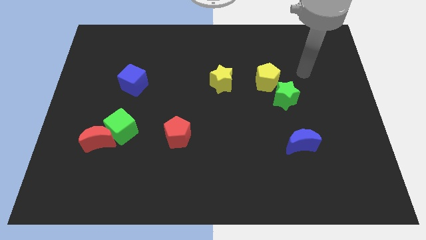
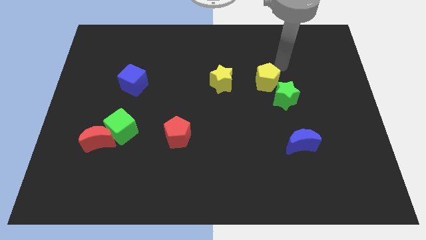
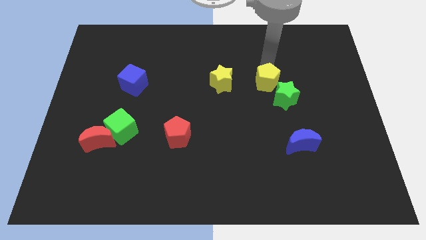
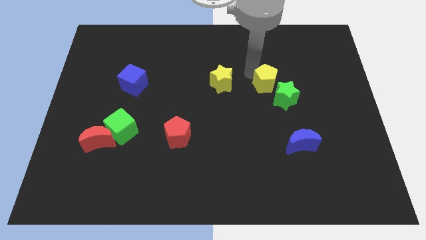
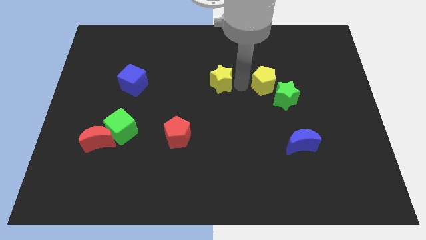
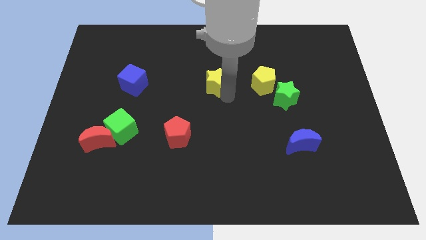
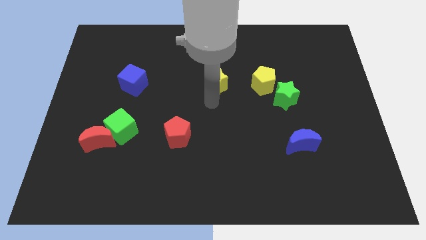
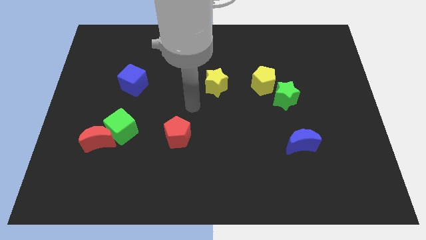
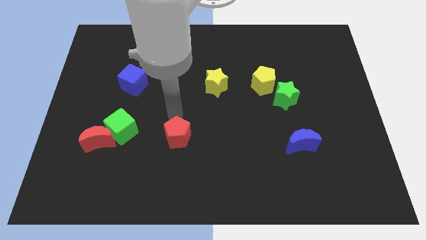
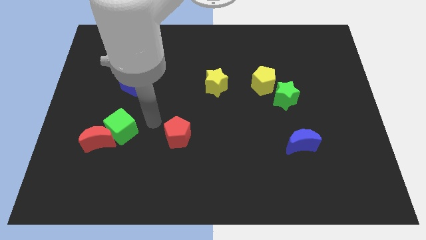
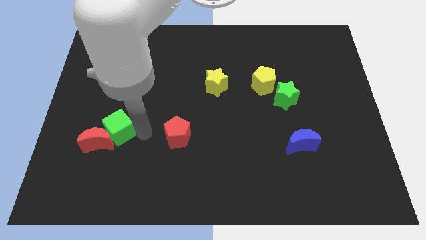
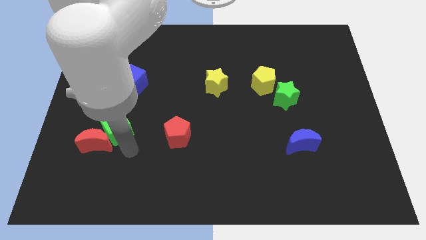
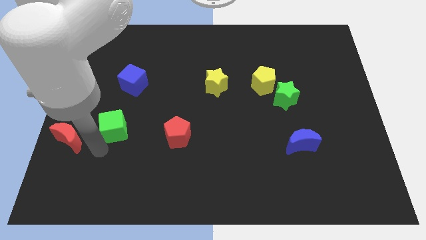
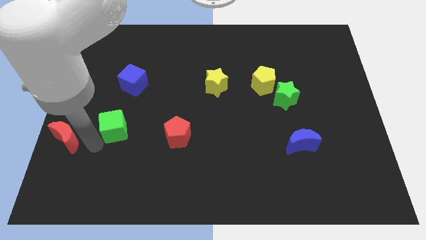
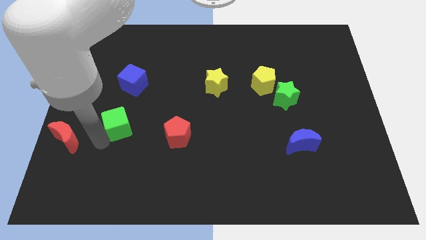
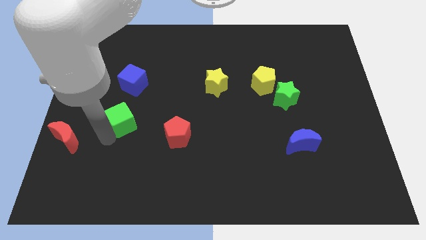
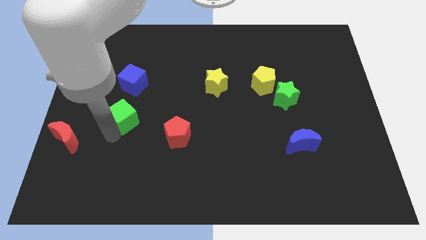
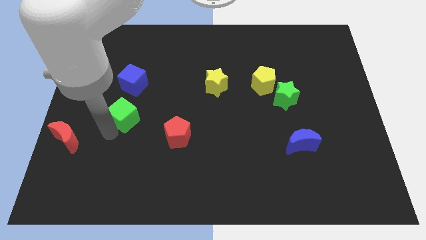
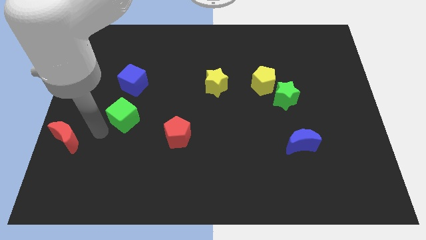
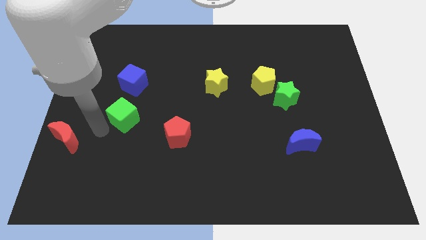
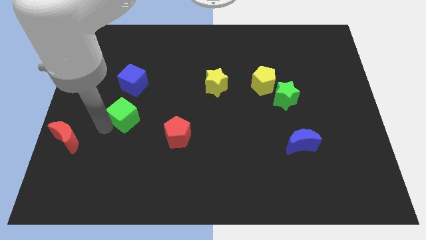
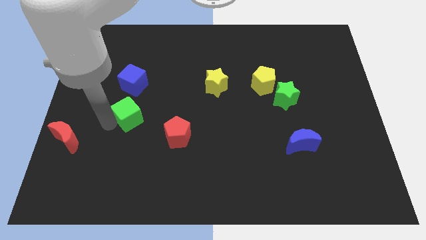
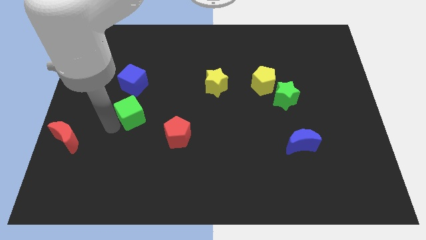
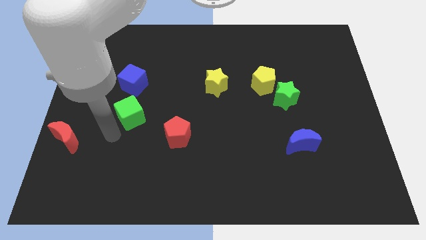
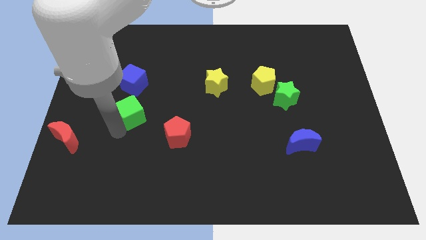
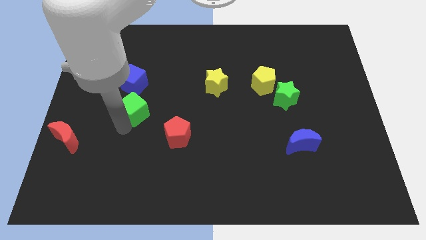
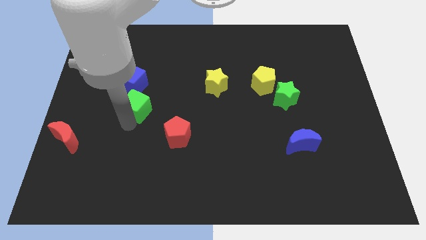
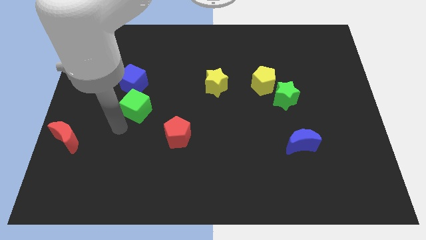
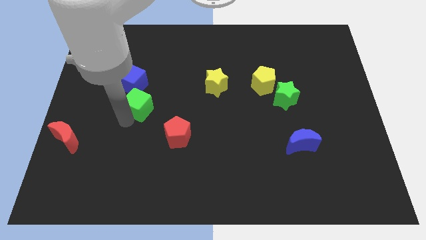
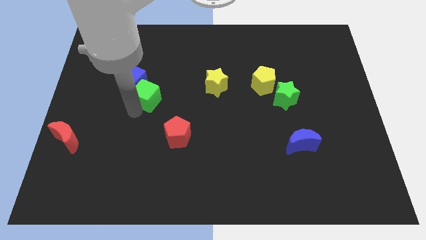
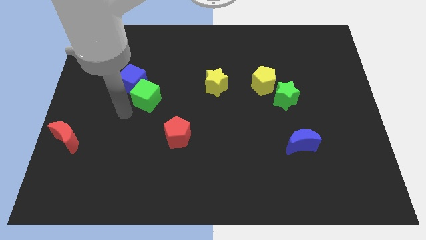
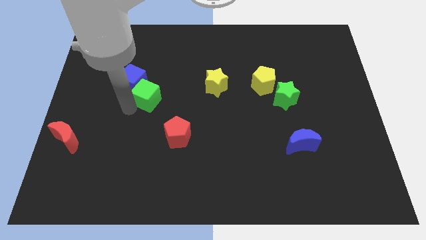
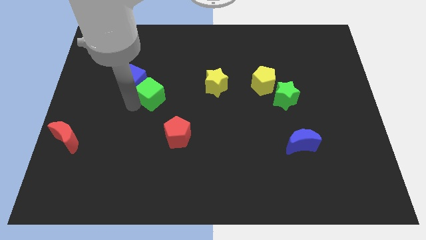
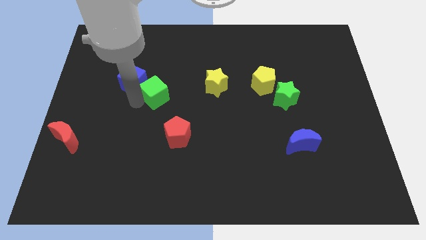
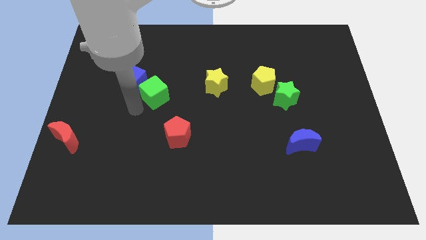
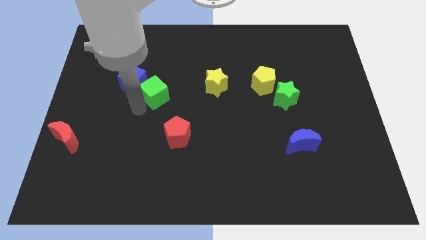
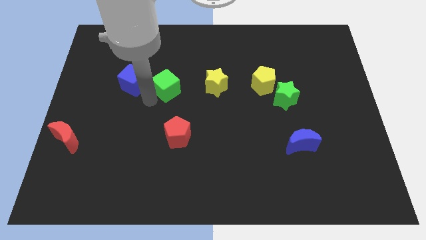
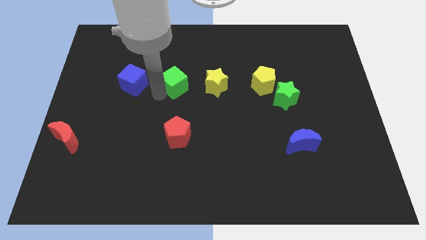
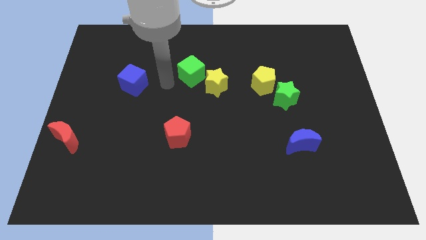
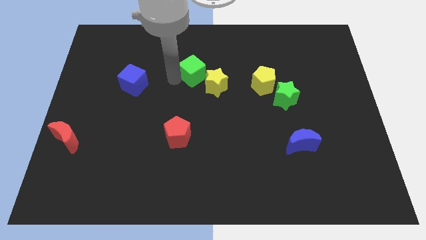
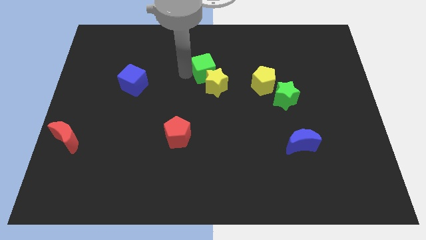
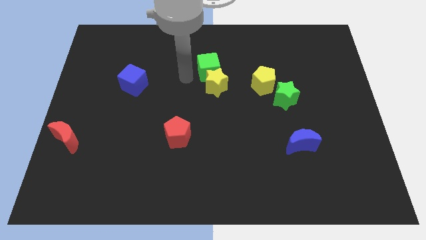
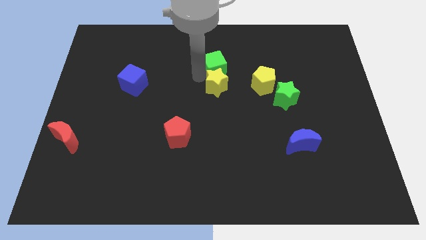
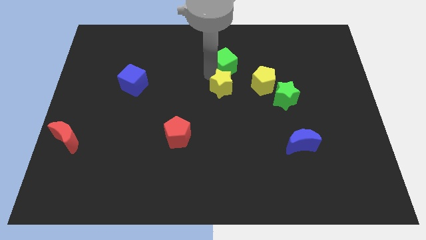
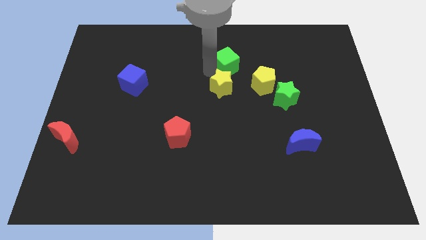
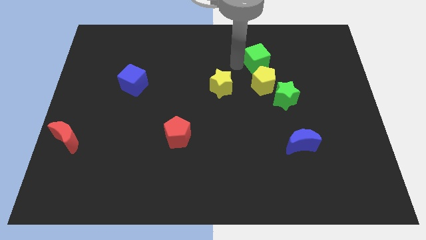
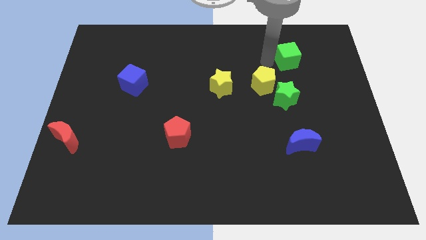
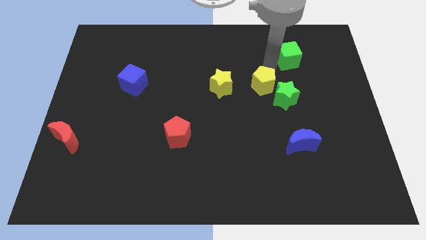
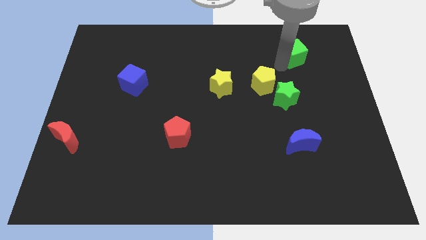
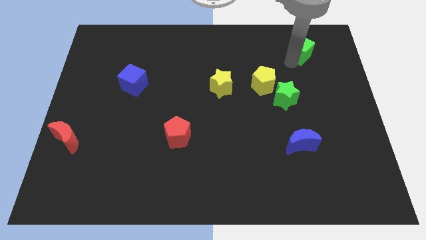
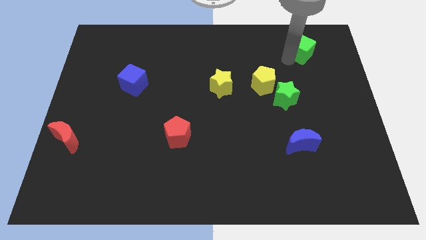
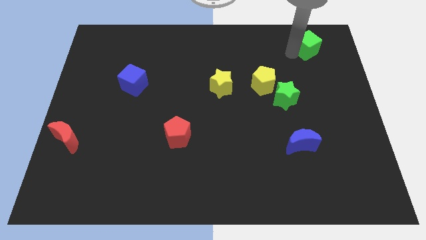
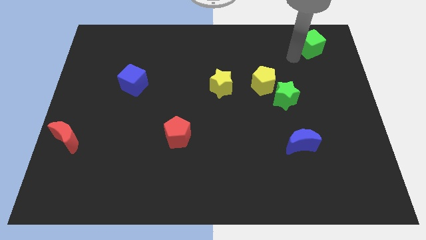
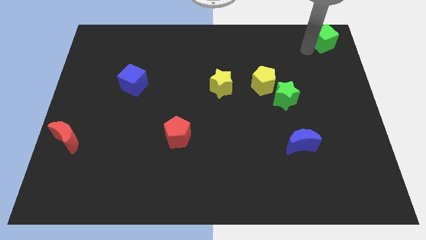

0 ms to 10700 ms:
push the green cube to the top right

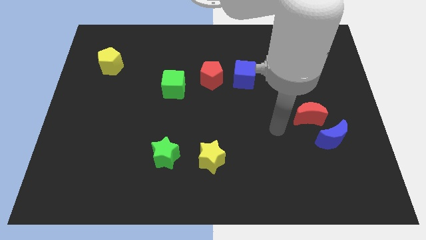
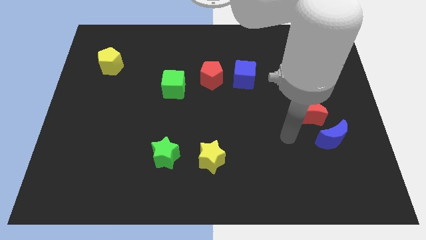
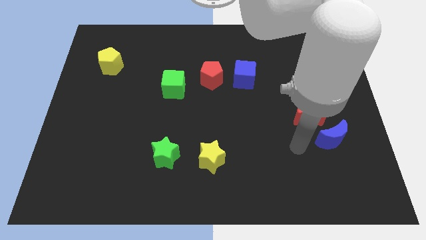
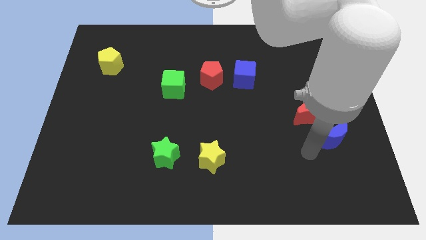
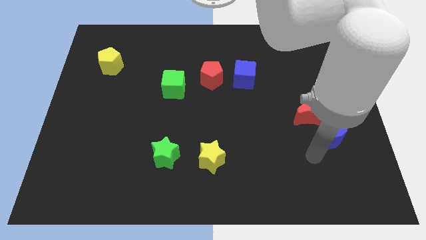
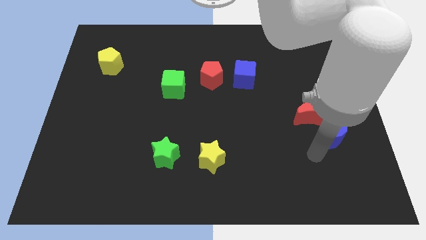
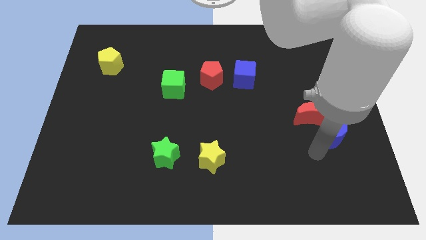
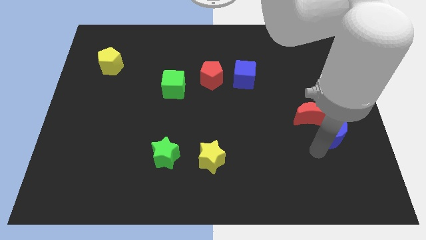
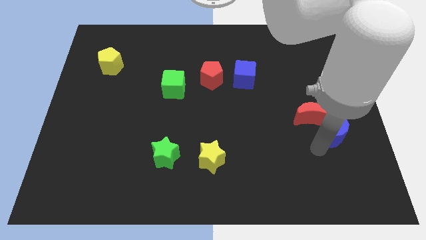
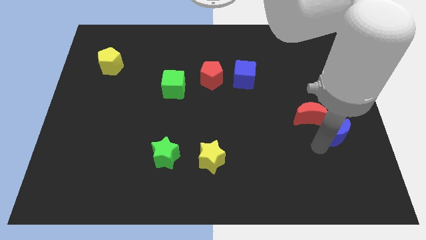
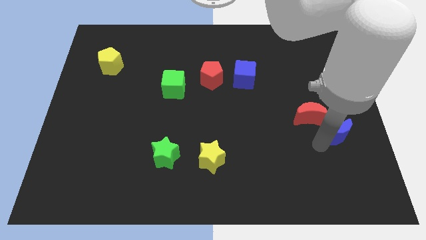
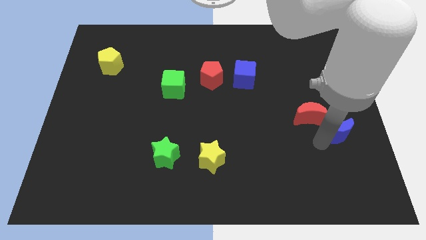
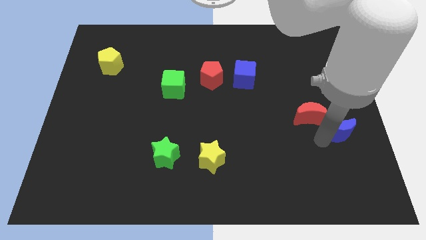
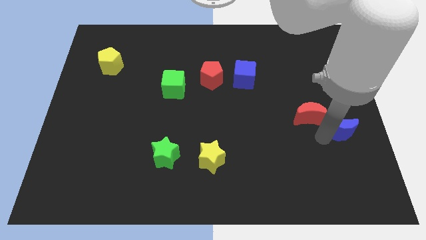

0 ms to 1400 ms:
move the blue moon to the right side
